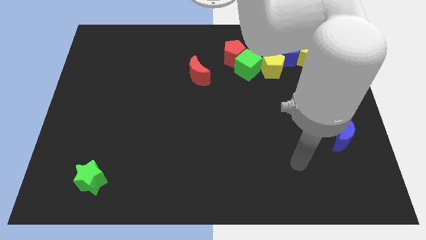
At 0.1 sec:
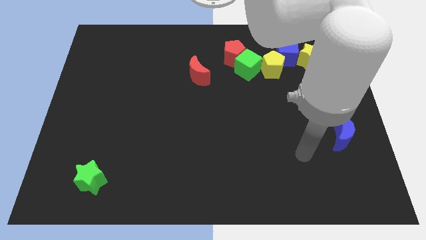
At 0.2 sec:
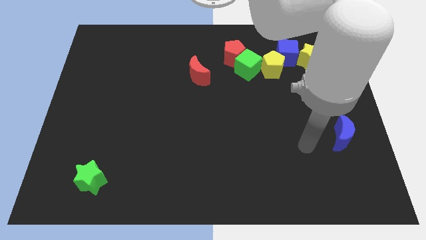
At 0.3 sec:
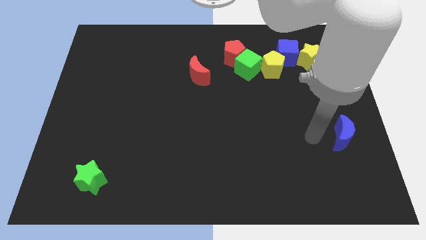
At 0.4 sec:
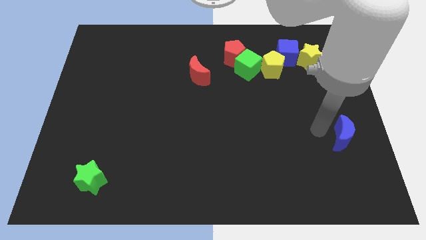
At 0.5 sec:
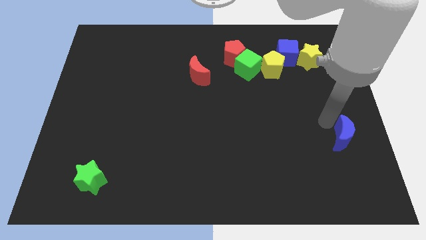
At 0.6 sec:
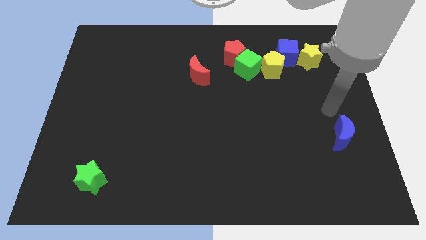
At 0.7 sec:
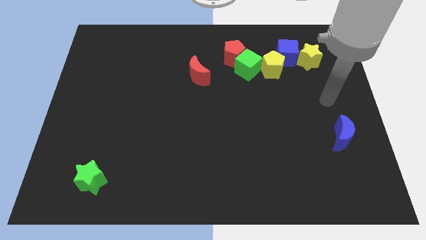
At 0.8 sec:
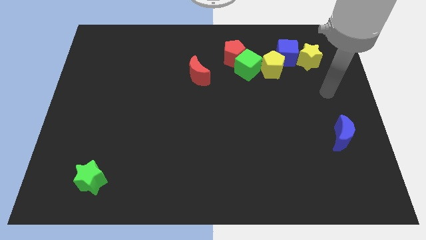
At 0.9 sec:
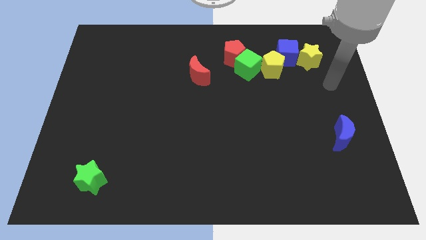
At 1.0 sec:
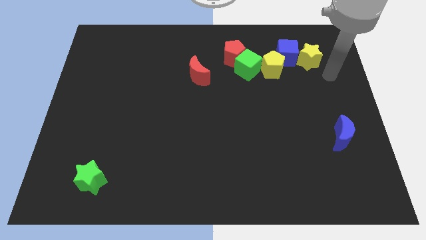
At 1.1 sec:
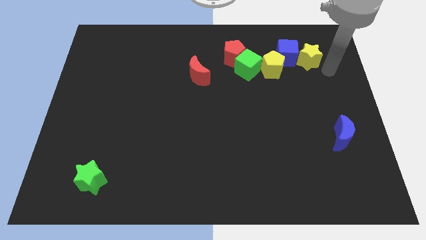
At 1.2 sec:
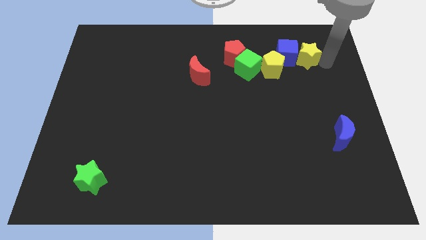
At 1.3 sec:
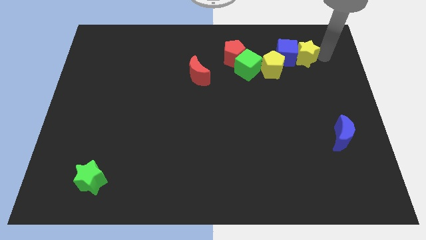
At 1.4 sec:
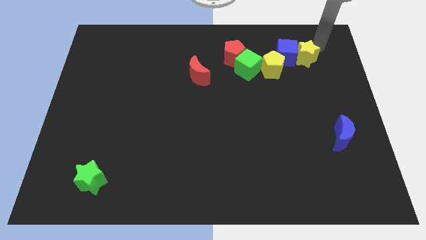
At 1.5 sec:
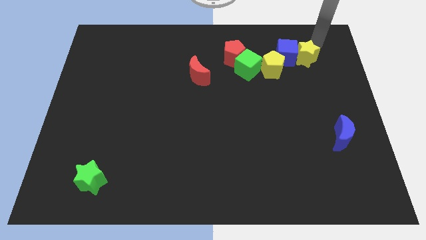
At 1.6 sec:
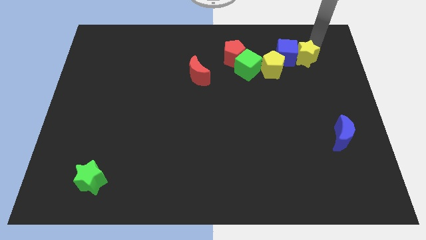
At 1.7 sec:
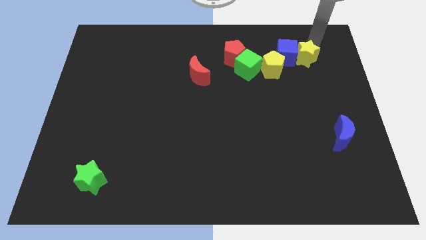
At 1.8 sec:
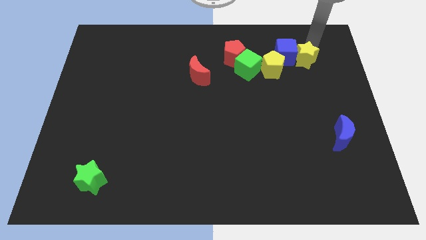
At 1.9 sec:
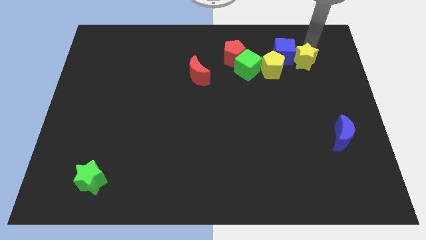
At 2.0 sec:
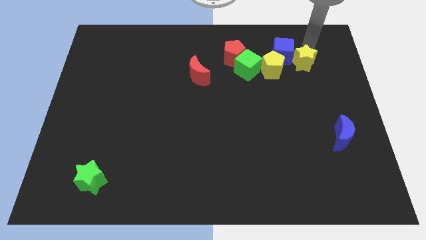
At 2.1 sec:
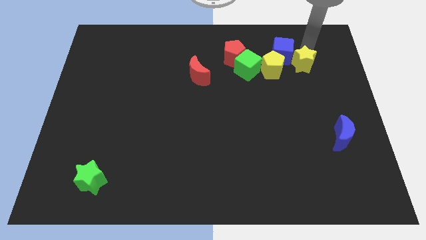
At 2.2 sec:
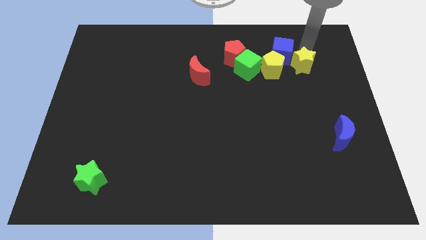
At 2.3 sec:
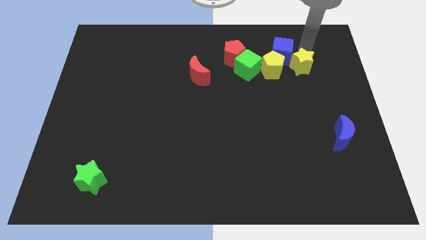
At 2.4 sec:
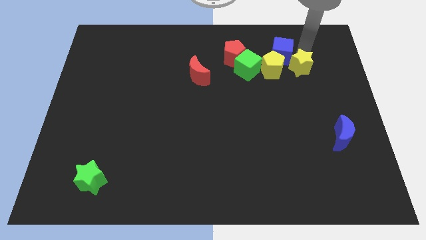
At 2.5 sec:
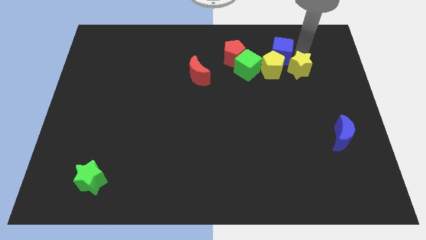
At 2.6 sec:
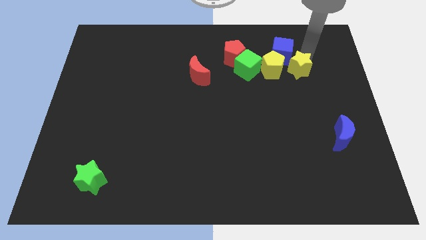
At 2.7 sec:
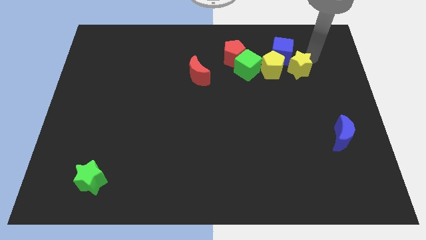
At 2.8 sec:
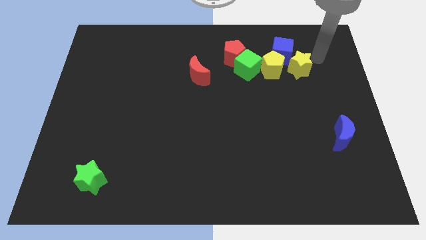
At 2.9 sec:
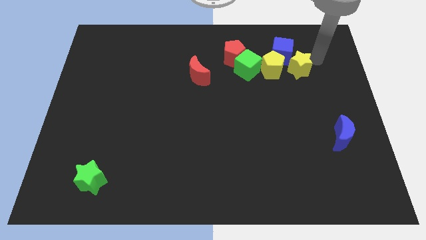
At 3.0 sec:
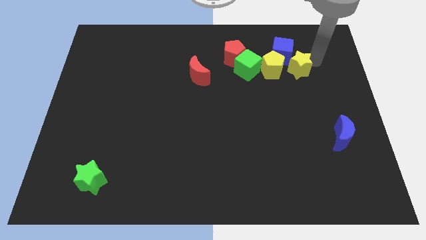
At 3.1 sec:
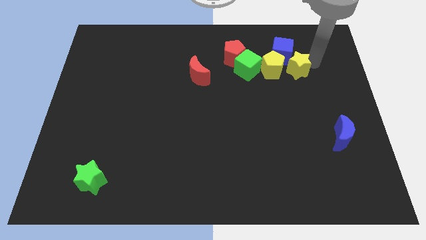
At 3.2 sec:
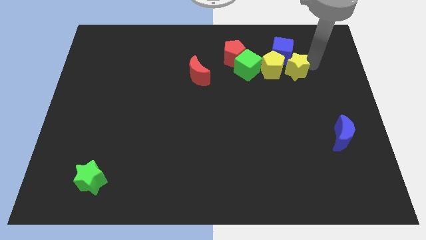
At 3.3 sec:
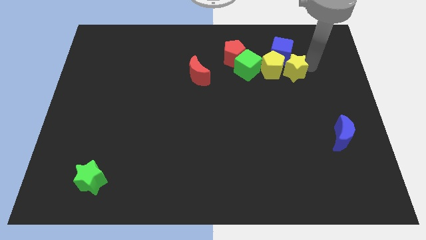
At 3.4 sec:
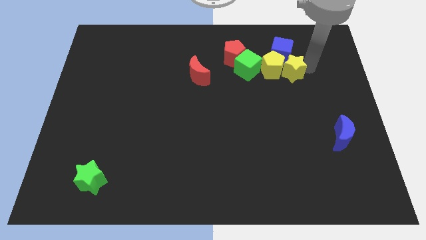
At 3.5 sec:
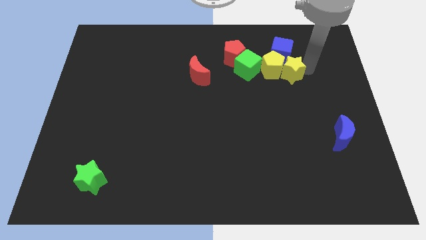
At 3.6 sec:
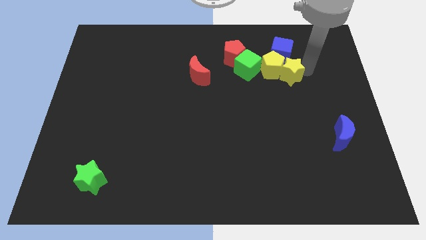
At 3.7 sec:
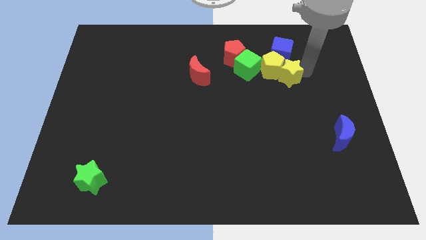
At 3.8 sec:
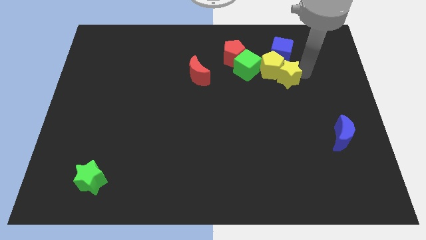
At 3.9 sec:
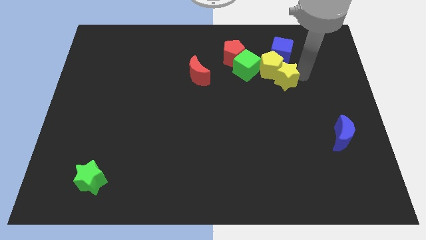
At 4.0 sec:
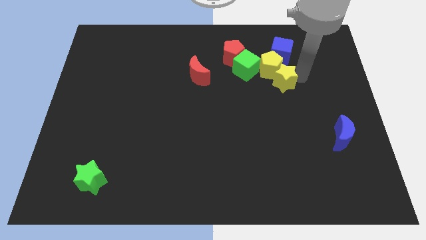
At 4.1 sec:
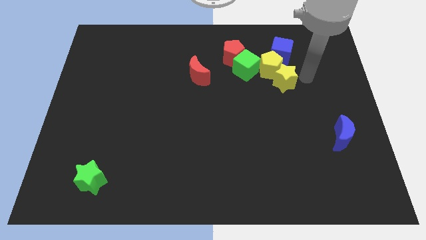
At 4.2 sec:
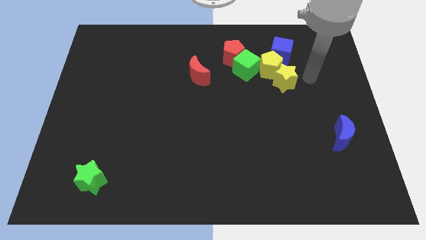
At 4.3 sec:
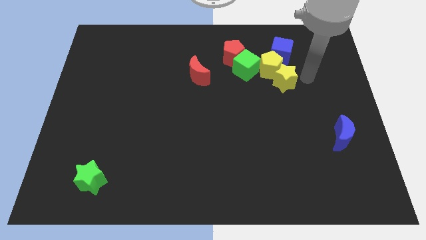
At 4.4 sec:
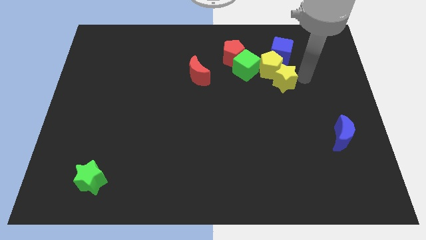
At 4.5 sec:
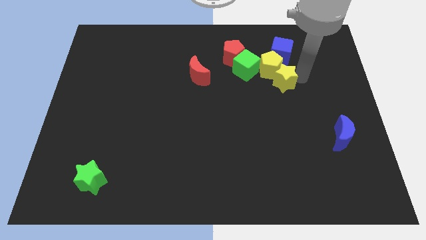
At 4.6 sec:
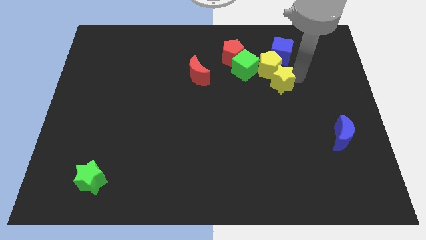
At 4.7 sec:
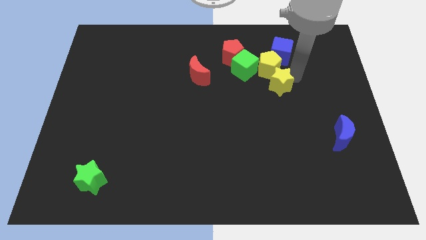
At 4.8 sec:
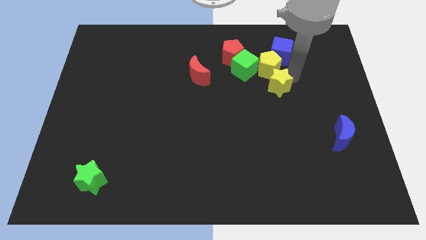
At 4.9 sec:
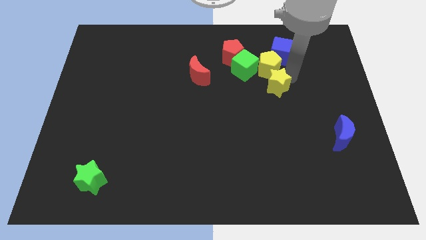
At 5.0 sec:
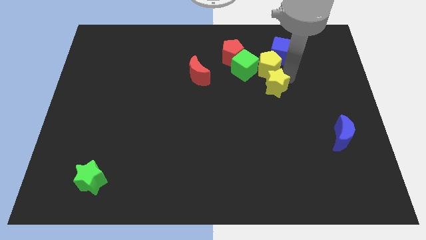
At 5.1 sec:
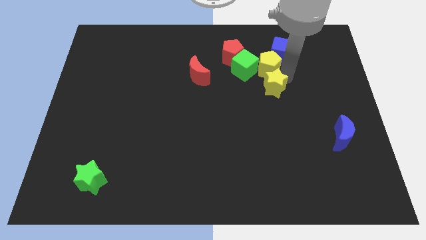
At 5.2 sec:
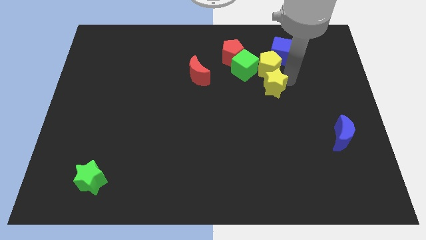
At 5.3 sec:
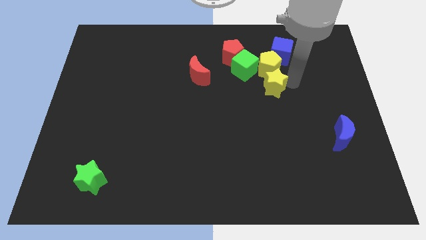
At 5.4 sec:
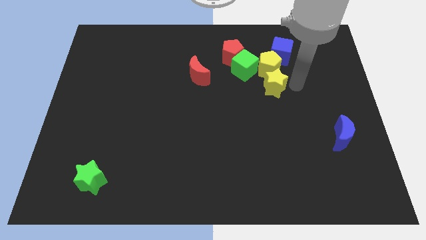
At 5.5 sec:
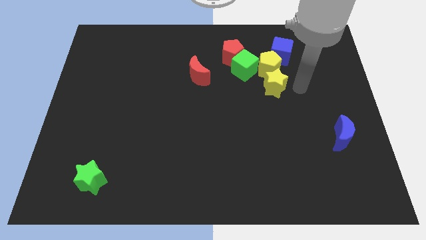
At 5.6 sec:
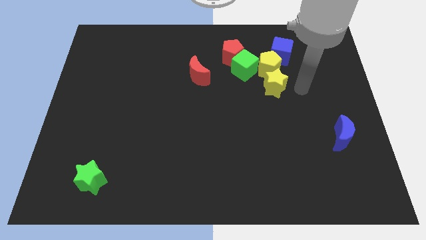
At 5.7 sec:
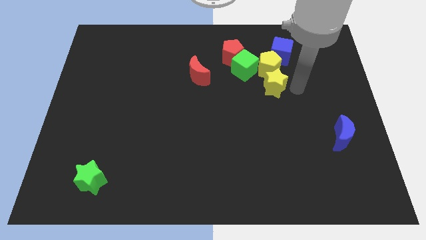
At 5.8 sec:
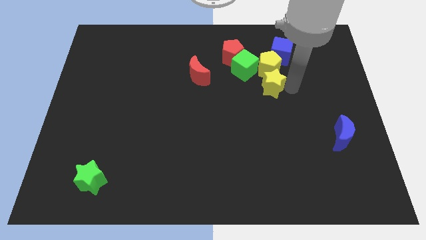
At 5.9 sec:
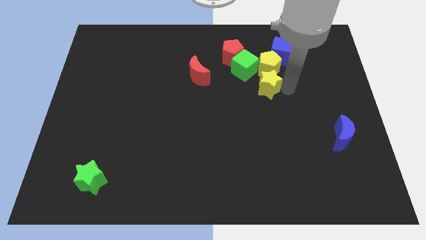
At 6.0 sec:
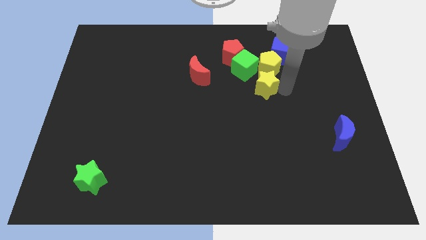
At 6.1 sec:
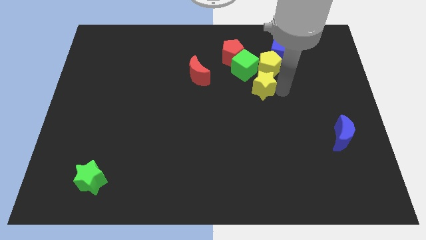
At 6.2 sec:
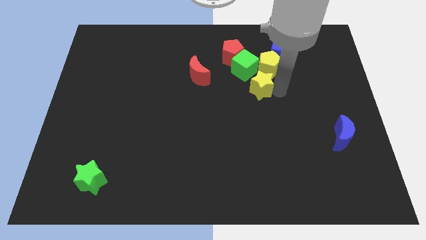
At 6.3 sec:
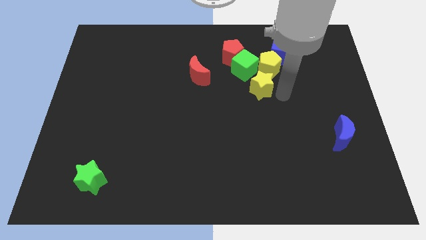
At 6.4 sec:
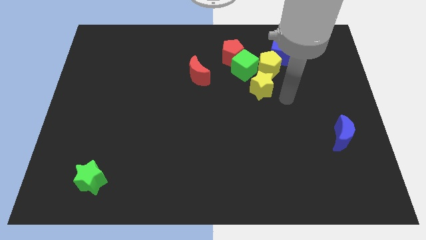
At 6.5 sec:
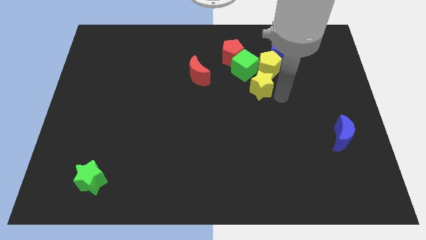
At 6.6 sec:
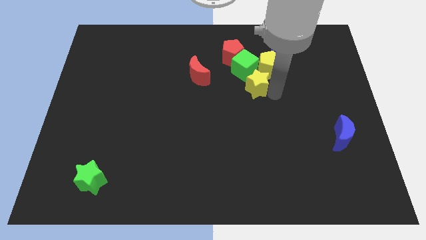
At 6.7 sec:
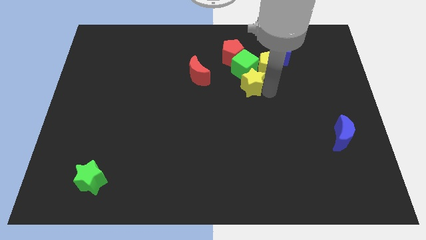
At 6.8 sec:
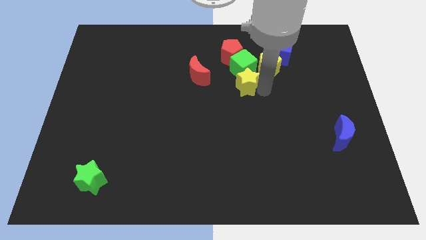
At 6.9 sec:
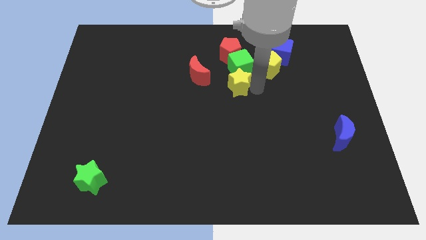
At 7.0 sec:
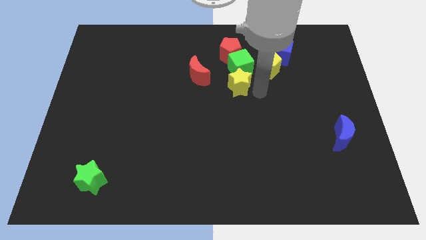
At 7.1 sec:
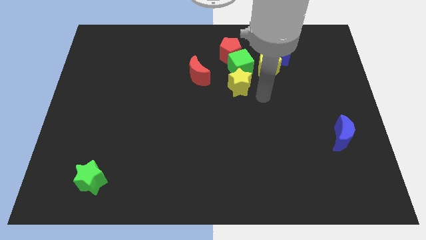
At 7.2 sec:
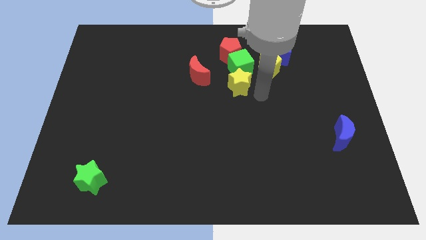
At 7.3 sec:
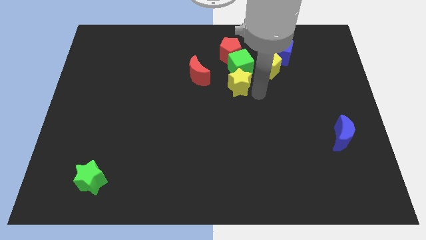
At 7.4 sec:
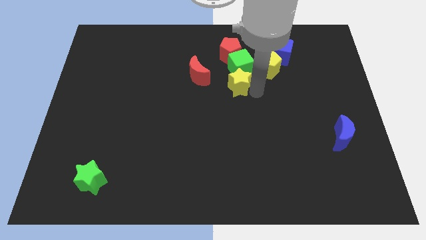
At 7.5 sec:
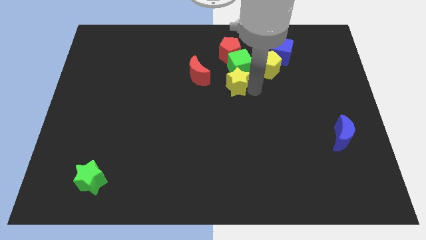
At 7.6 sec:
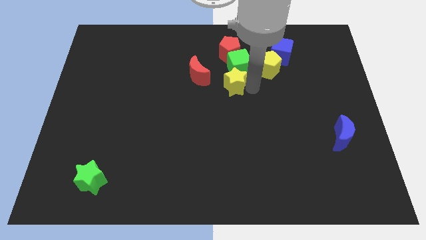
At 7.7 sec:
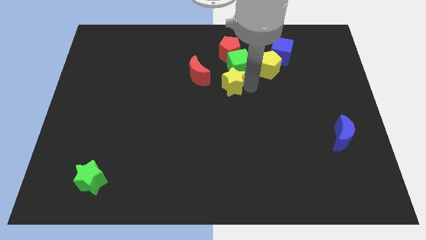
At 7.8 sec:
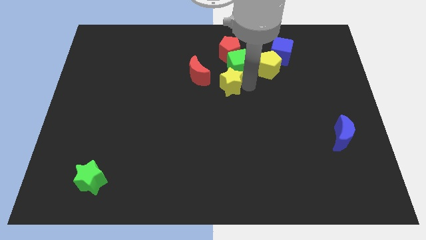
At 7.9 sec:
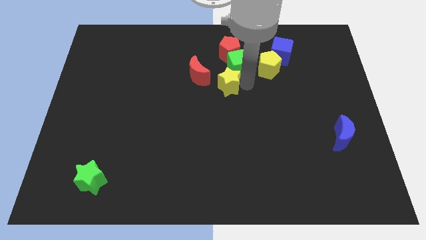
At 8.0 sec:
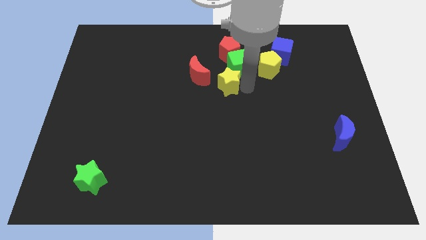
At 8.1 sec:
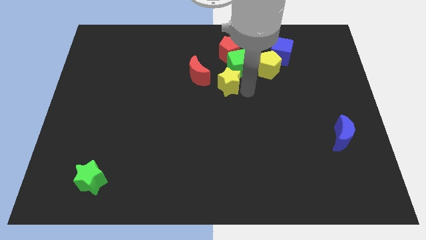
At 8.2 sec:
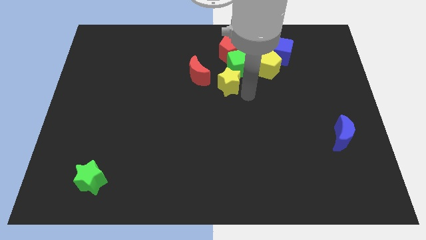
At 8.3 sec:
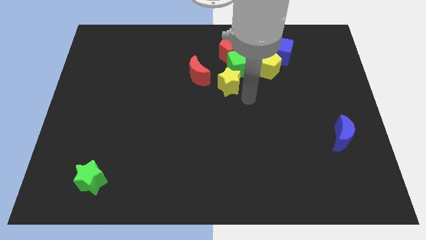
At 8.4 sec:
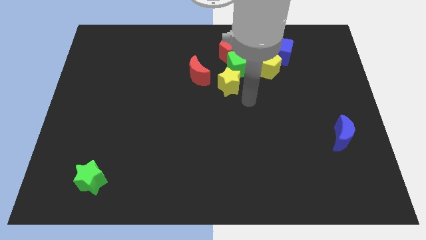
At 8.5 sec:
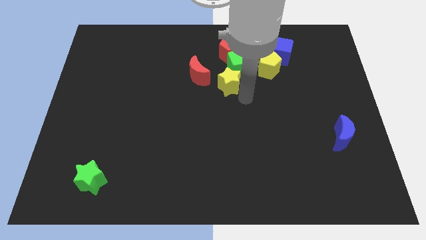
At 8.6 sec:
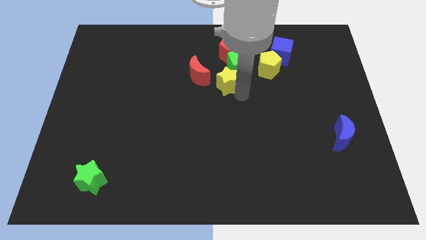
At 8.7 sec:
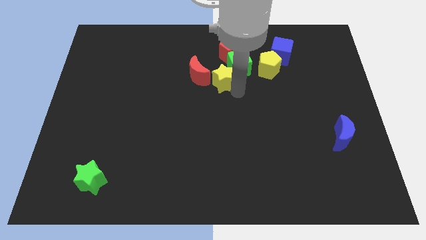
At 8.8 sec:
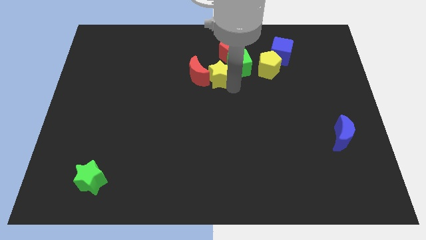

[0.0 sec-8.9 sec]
put the yellow star towards the red moon
